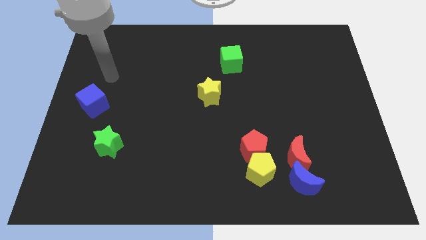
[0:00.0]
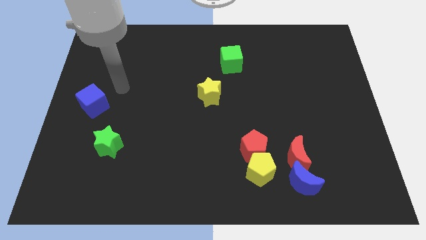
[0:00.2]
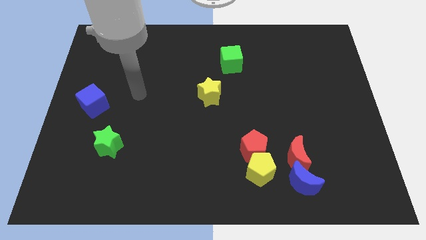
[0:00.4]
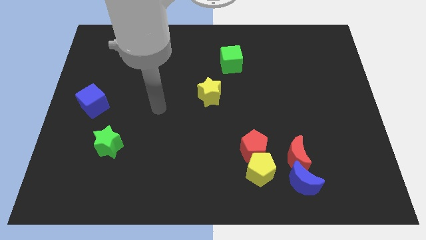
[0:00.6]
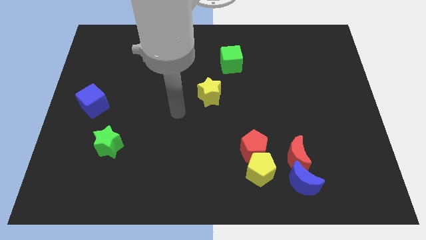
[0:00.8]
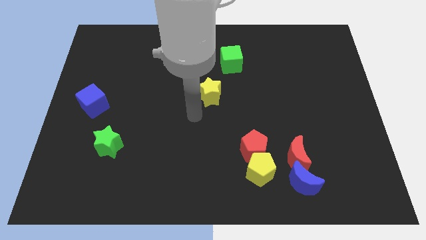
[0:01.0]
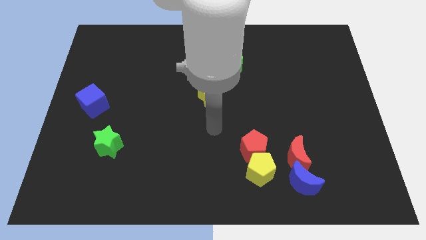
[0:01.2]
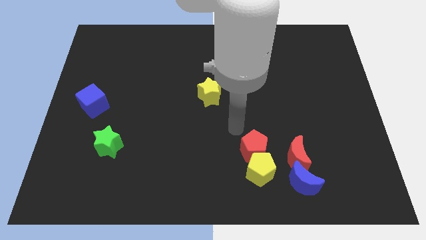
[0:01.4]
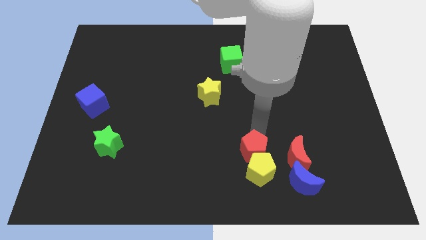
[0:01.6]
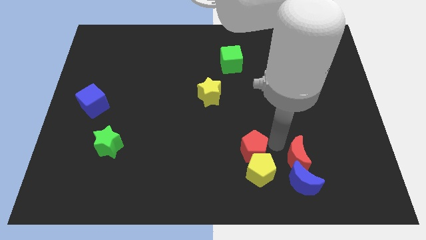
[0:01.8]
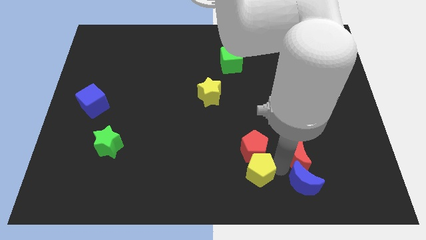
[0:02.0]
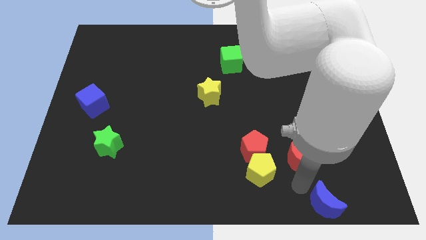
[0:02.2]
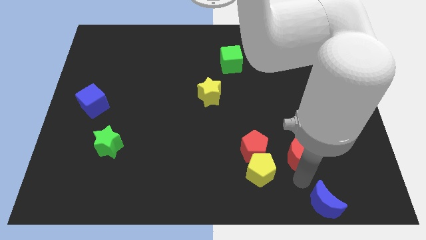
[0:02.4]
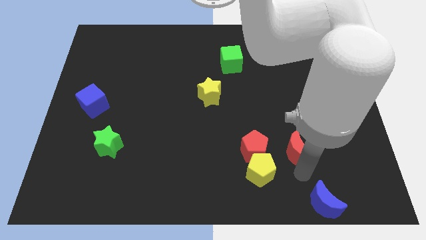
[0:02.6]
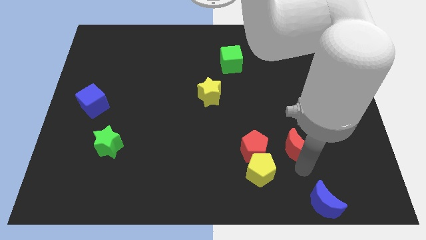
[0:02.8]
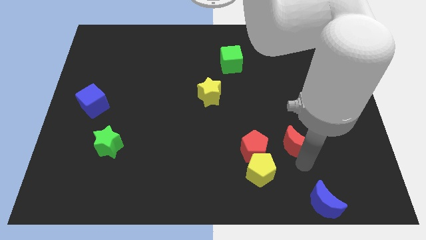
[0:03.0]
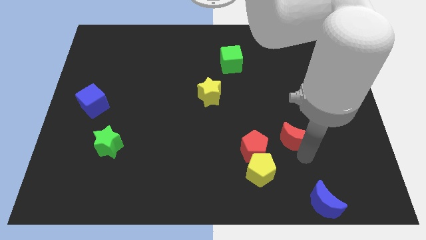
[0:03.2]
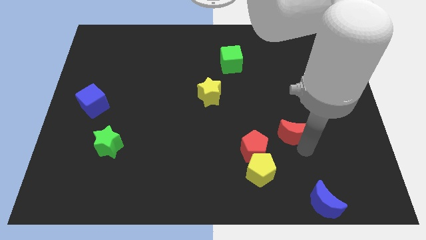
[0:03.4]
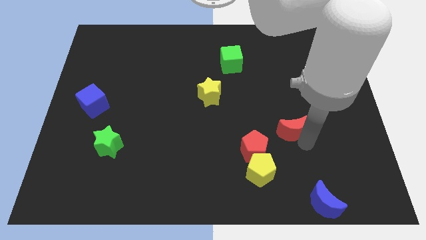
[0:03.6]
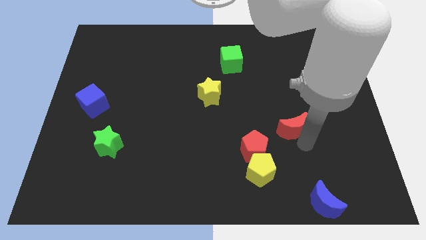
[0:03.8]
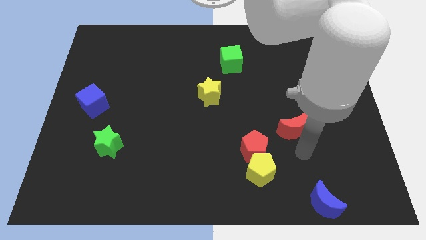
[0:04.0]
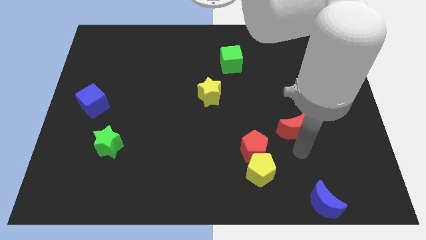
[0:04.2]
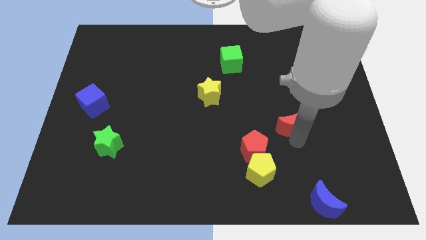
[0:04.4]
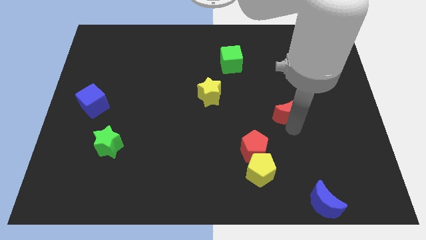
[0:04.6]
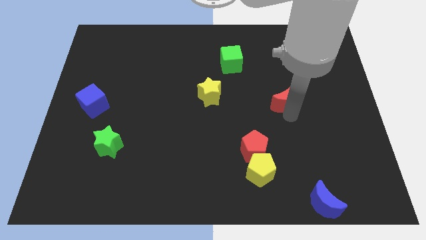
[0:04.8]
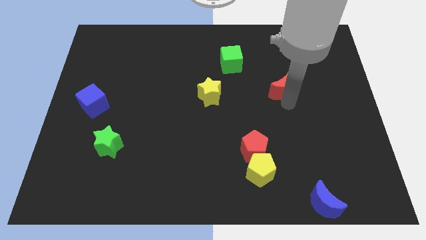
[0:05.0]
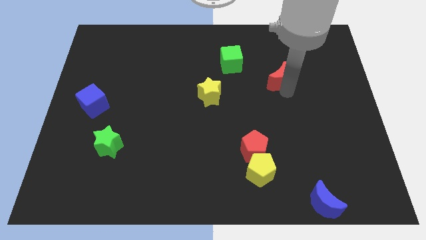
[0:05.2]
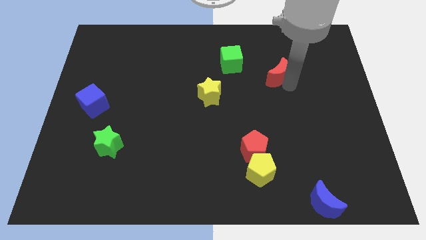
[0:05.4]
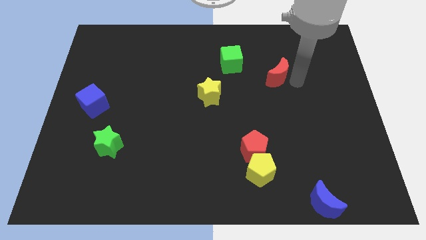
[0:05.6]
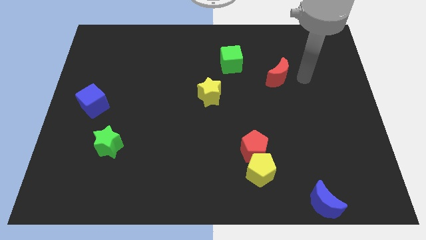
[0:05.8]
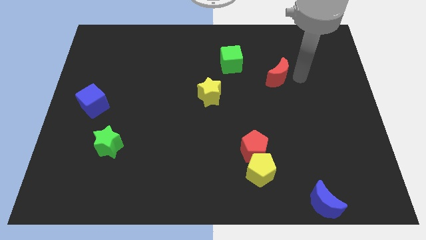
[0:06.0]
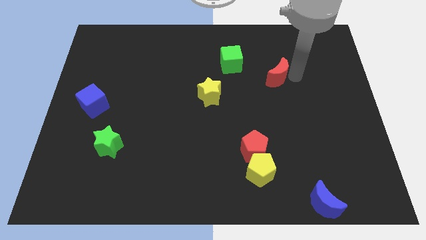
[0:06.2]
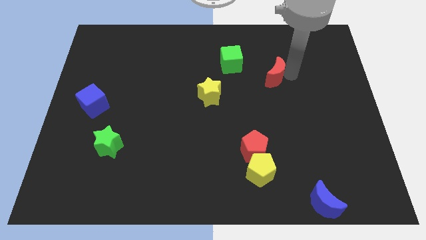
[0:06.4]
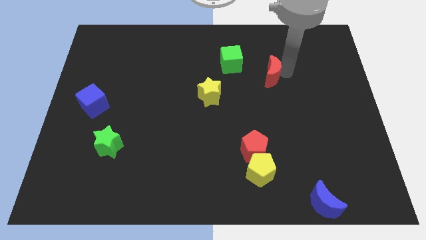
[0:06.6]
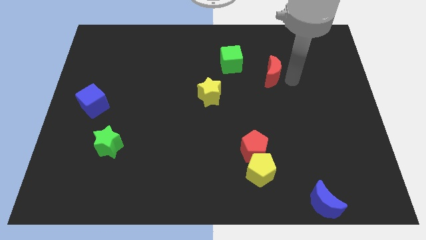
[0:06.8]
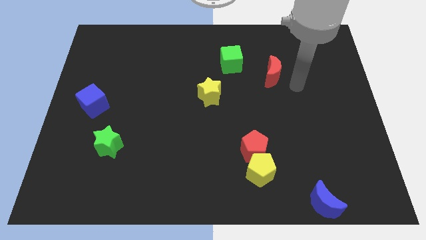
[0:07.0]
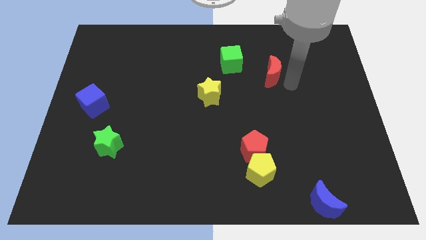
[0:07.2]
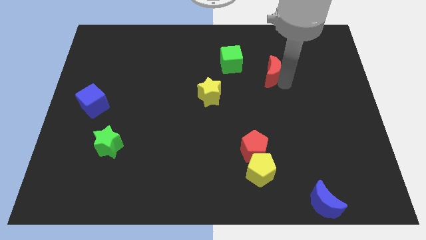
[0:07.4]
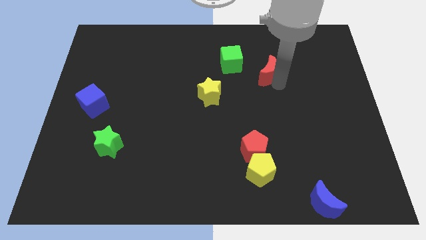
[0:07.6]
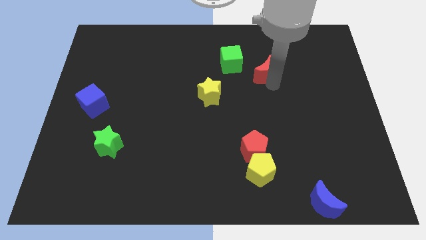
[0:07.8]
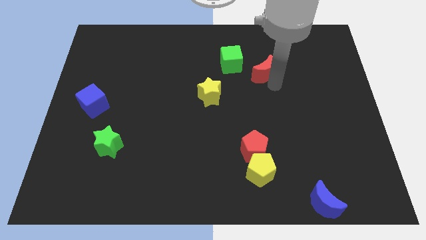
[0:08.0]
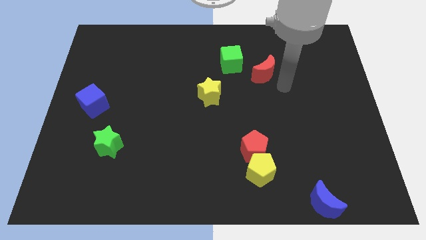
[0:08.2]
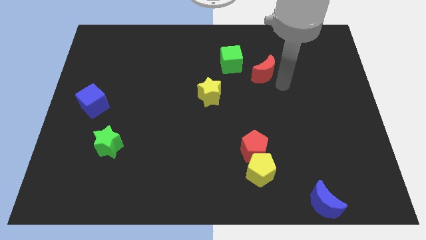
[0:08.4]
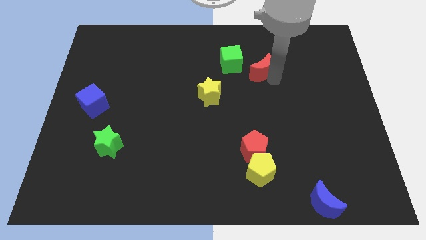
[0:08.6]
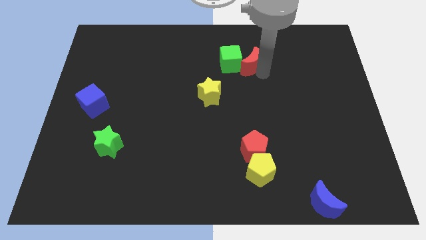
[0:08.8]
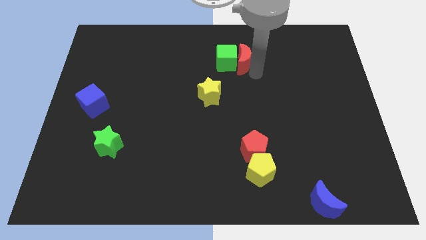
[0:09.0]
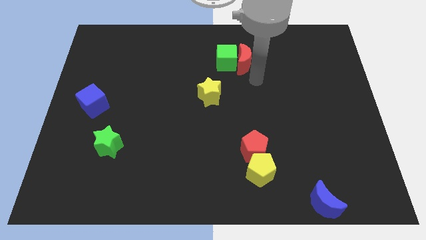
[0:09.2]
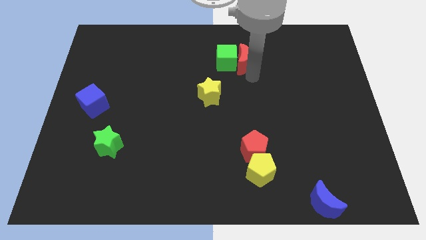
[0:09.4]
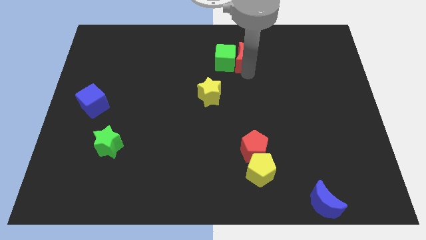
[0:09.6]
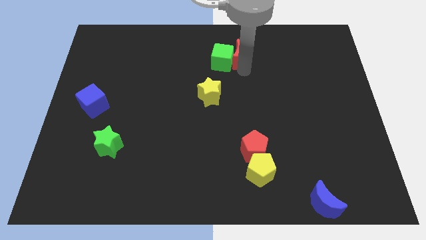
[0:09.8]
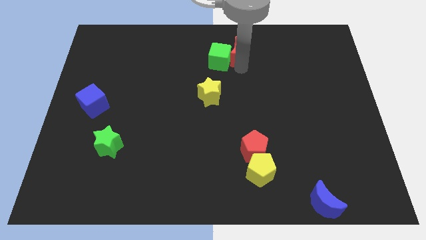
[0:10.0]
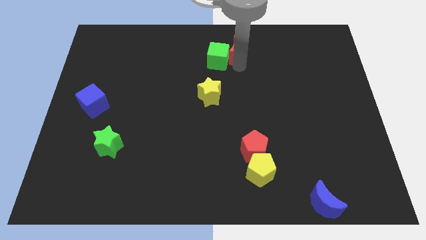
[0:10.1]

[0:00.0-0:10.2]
slide the red moon to the top

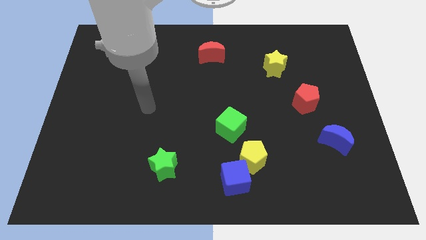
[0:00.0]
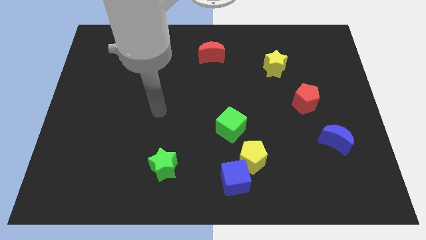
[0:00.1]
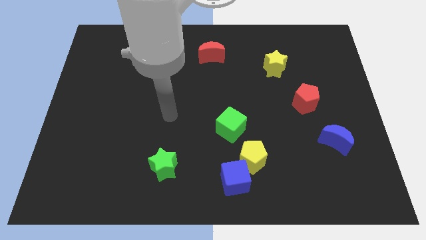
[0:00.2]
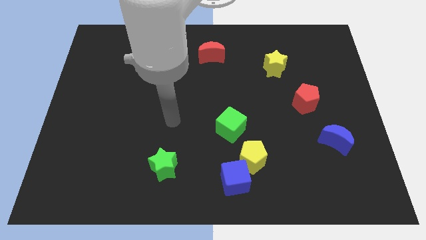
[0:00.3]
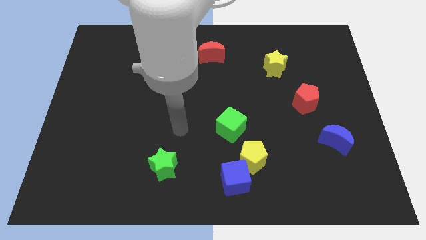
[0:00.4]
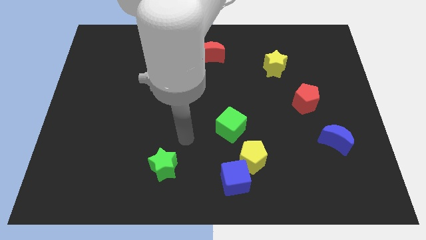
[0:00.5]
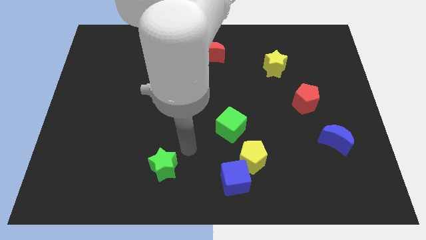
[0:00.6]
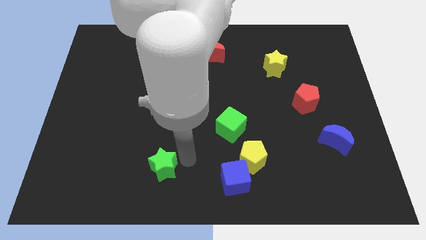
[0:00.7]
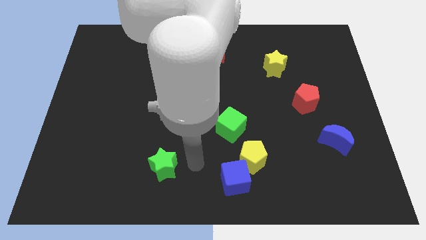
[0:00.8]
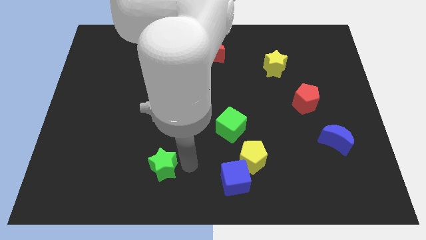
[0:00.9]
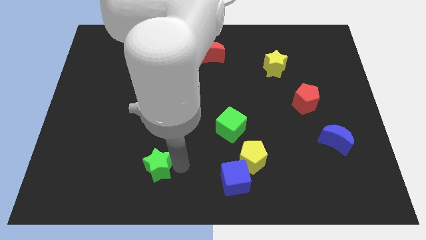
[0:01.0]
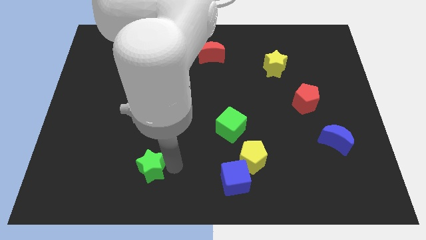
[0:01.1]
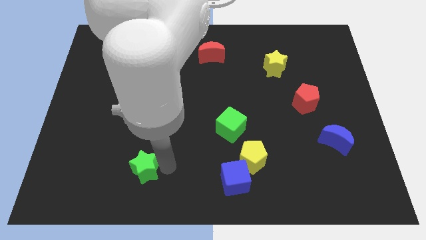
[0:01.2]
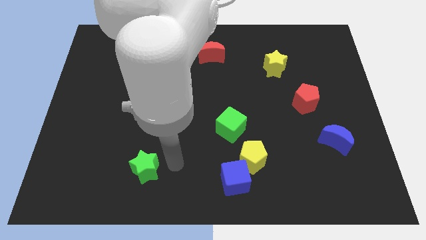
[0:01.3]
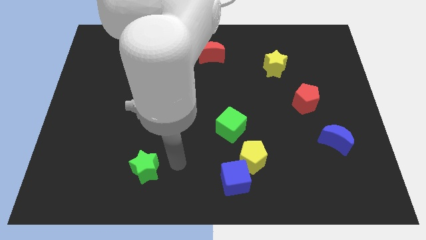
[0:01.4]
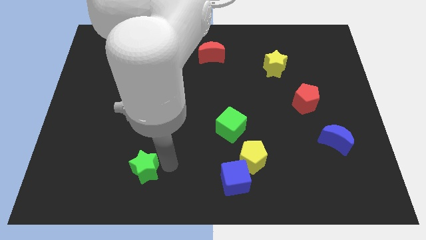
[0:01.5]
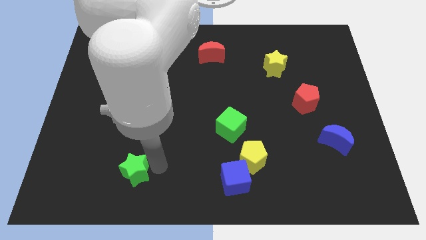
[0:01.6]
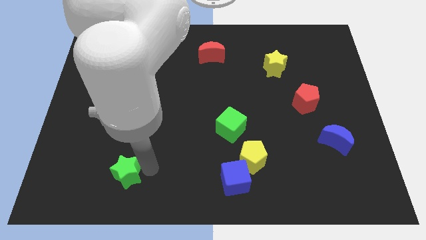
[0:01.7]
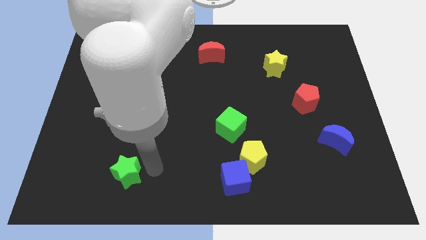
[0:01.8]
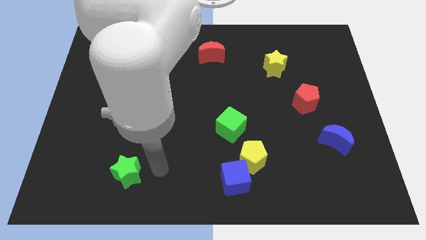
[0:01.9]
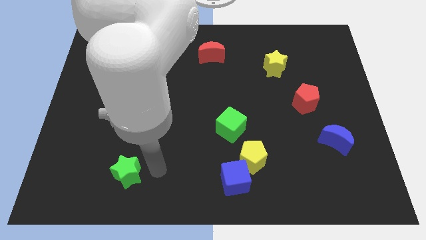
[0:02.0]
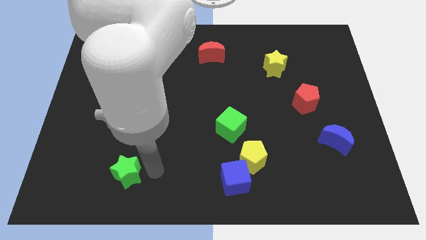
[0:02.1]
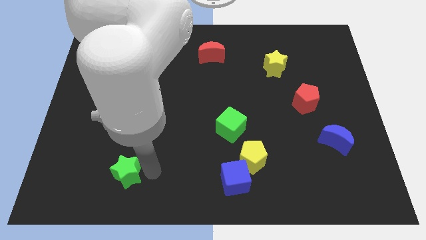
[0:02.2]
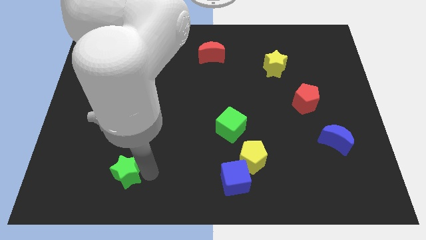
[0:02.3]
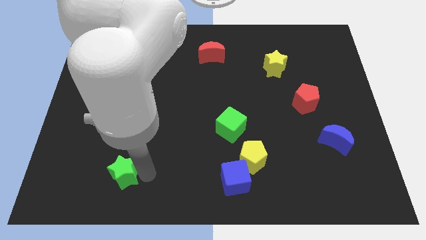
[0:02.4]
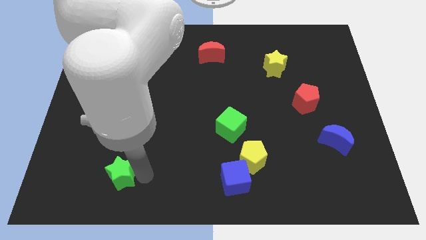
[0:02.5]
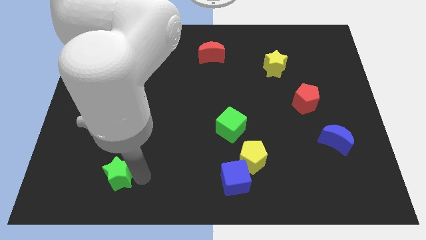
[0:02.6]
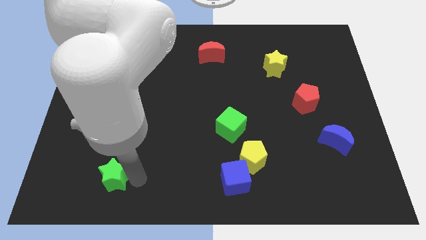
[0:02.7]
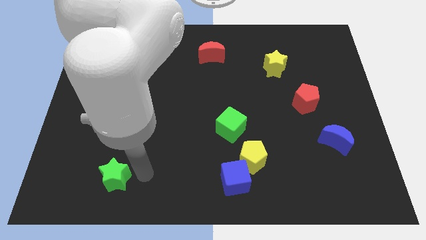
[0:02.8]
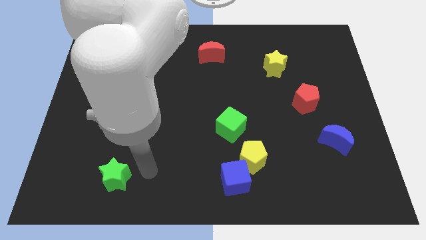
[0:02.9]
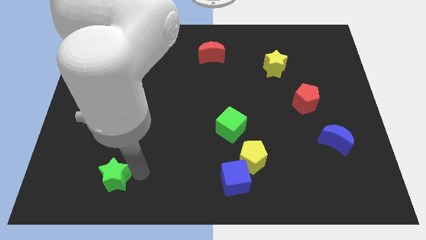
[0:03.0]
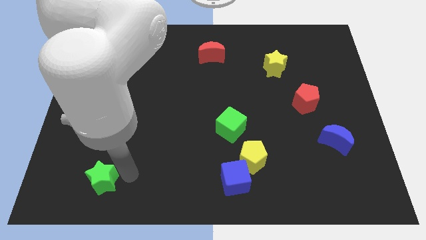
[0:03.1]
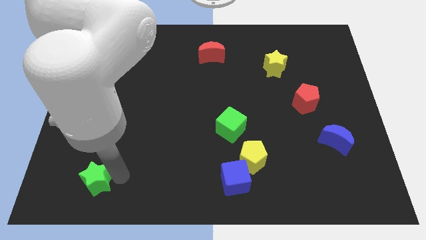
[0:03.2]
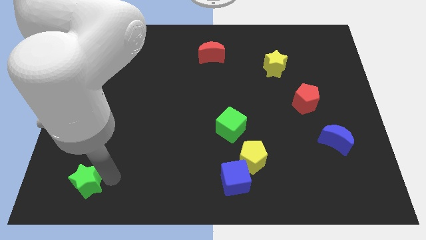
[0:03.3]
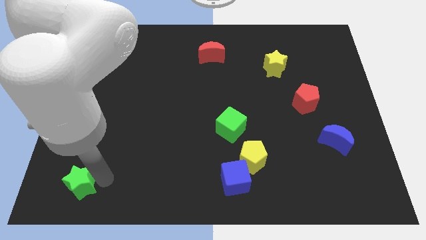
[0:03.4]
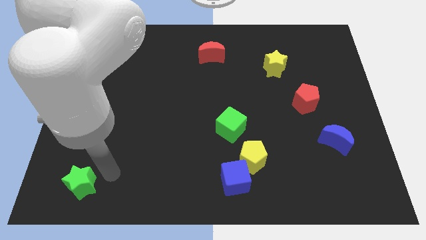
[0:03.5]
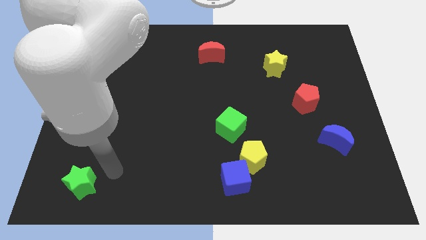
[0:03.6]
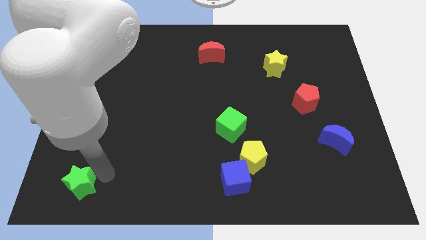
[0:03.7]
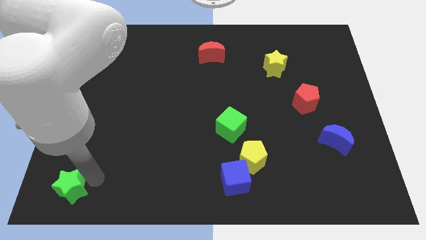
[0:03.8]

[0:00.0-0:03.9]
push the green star to the bottom left of the board
